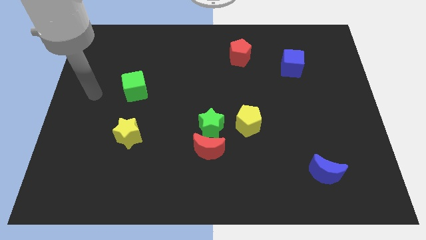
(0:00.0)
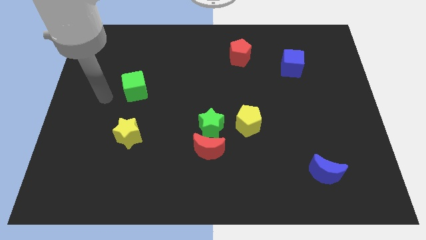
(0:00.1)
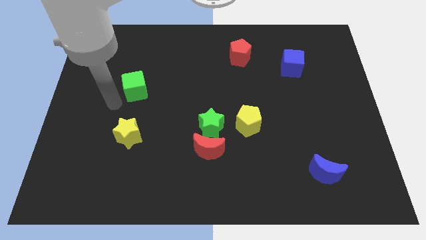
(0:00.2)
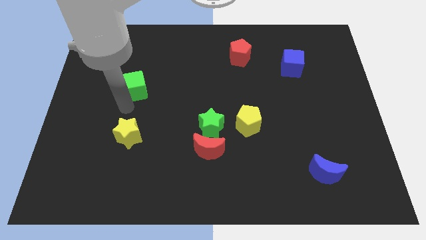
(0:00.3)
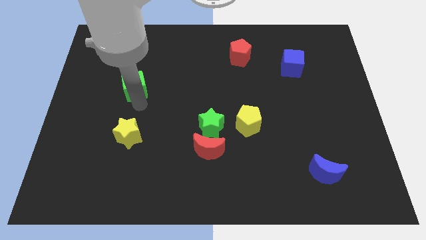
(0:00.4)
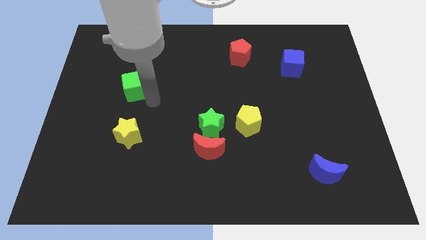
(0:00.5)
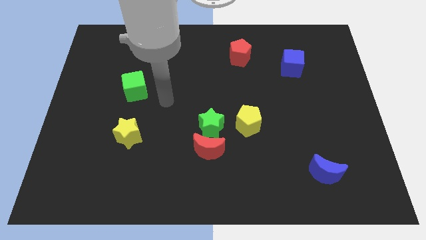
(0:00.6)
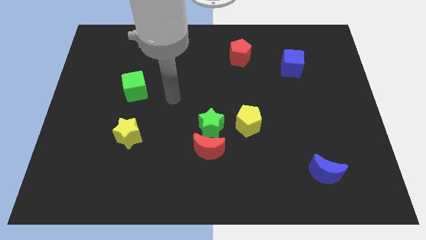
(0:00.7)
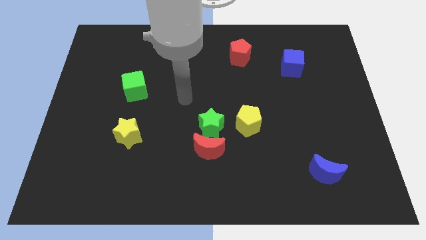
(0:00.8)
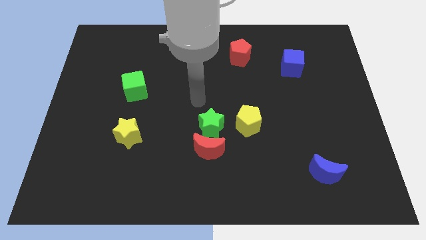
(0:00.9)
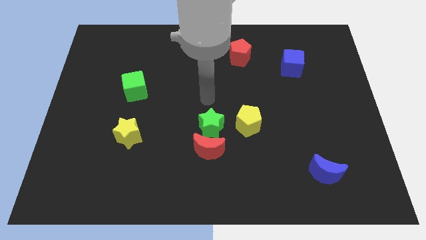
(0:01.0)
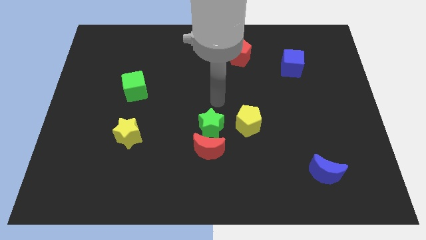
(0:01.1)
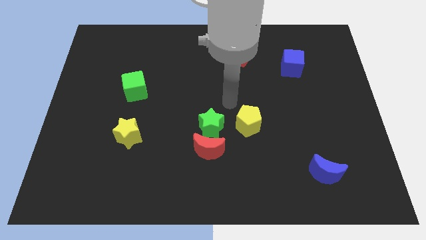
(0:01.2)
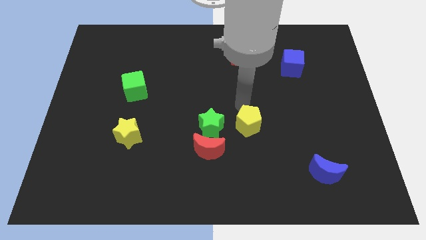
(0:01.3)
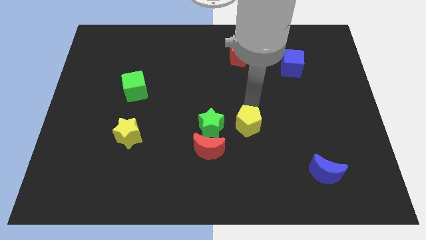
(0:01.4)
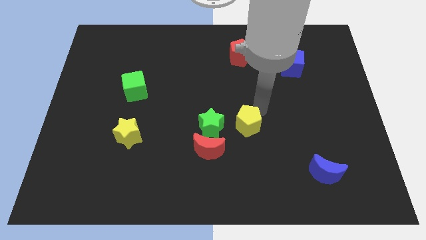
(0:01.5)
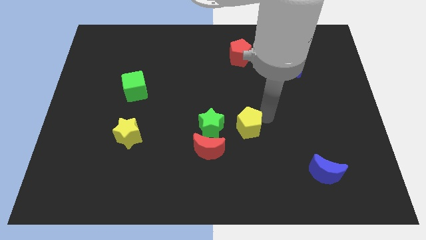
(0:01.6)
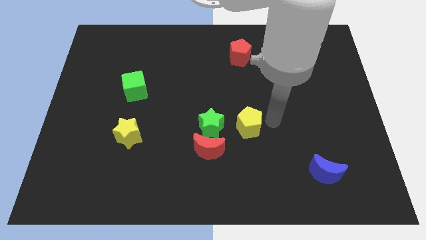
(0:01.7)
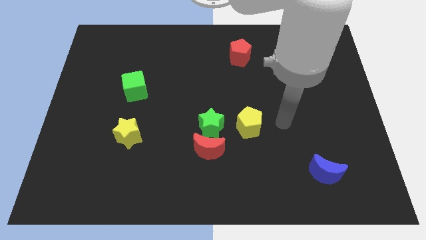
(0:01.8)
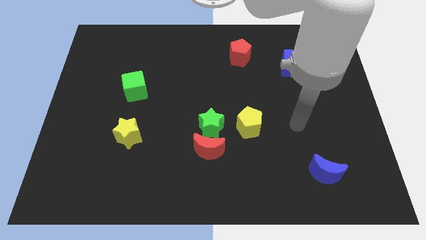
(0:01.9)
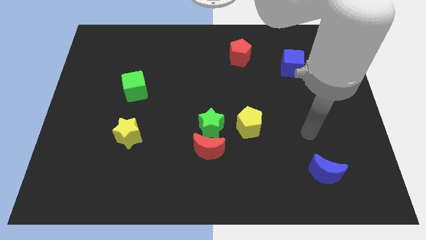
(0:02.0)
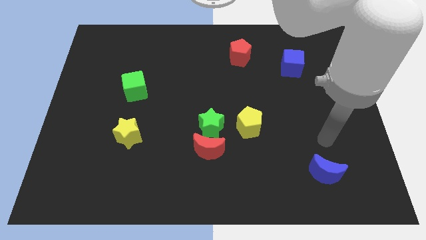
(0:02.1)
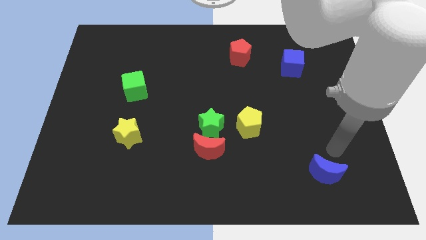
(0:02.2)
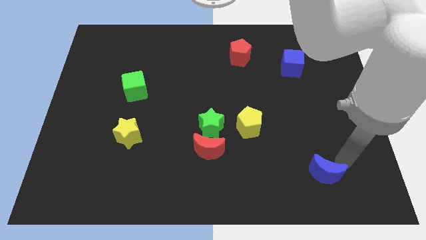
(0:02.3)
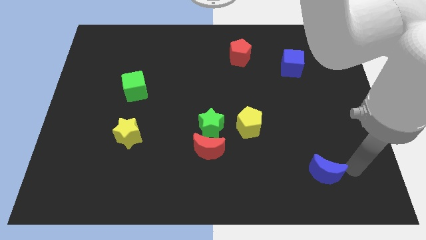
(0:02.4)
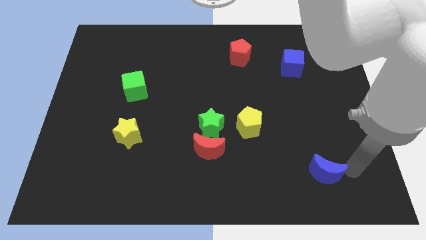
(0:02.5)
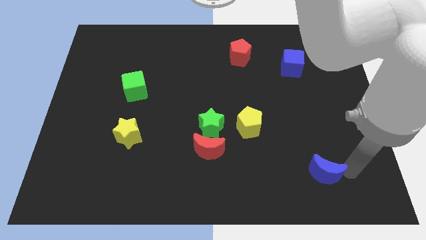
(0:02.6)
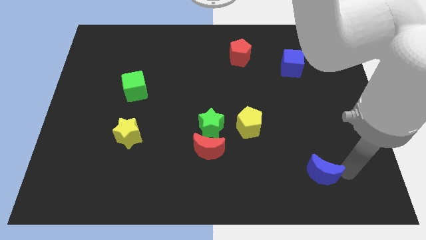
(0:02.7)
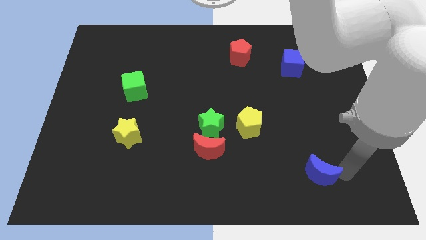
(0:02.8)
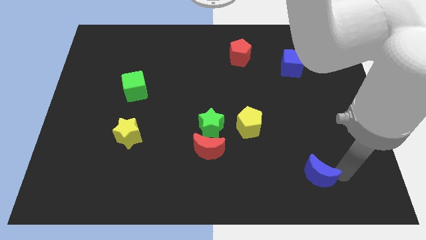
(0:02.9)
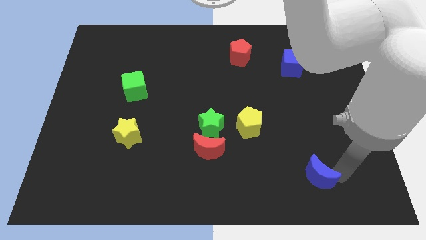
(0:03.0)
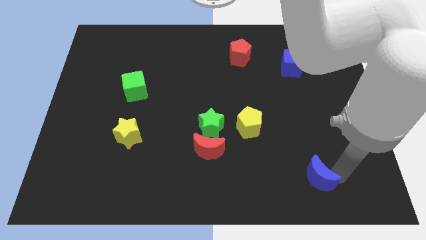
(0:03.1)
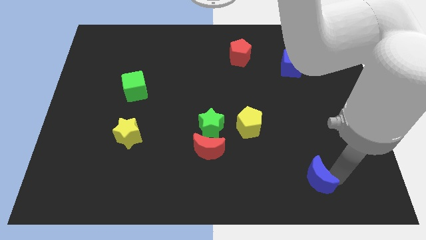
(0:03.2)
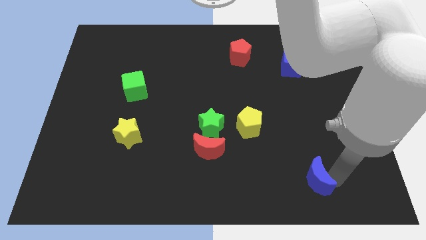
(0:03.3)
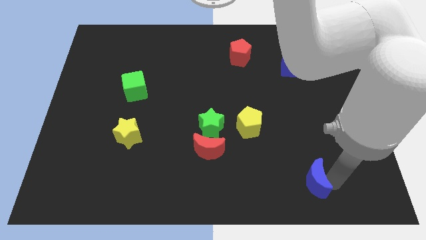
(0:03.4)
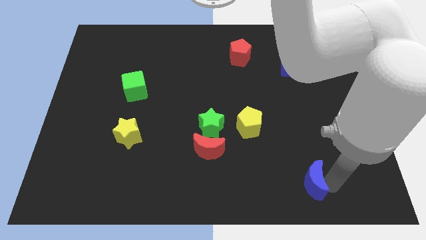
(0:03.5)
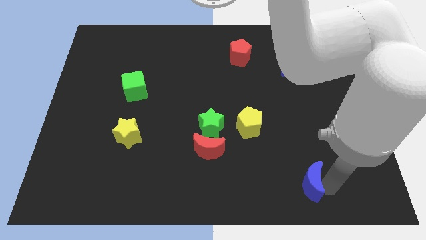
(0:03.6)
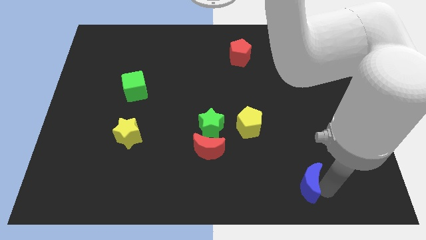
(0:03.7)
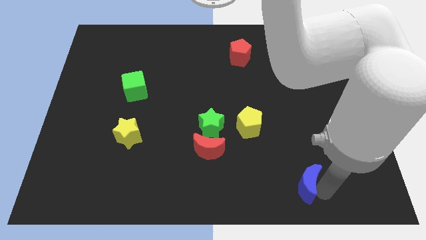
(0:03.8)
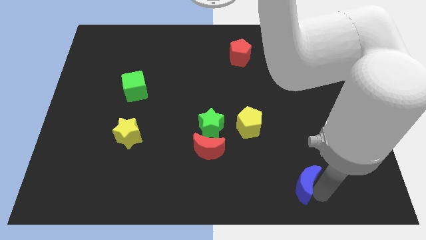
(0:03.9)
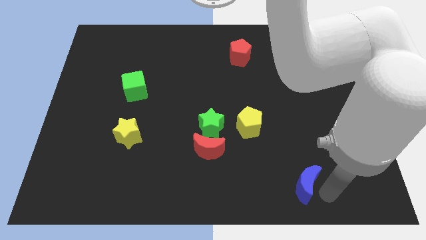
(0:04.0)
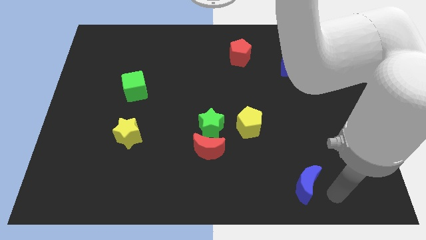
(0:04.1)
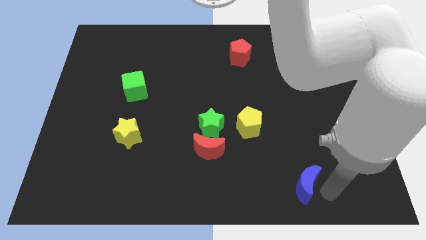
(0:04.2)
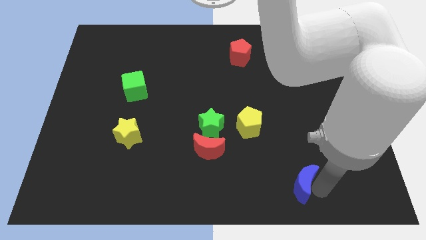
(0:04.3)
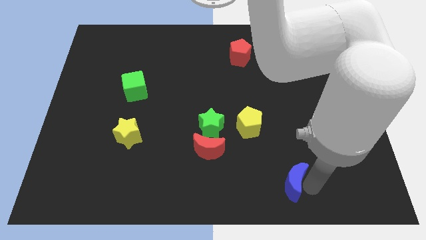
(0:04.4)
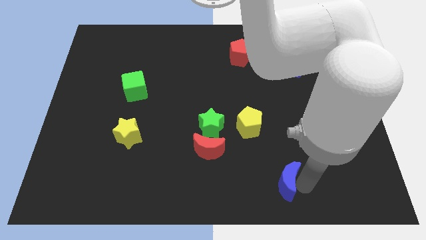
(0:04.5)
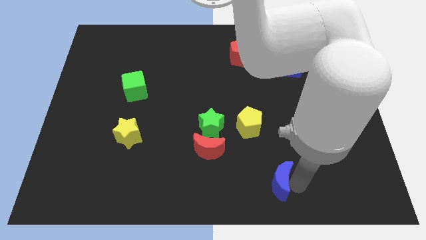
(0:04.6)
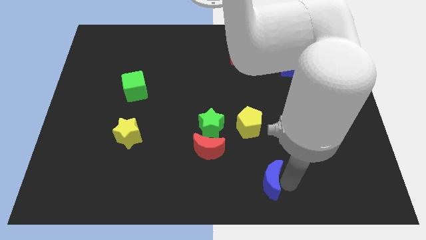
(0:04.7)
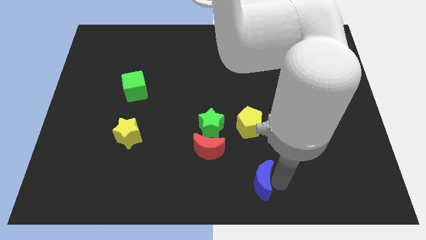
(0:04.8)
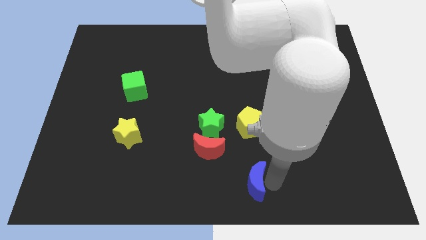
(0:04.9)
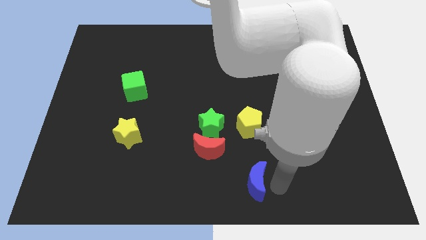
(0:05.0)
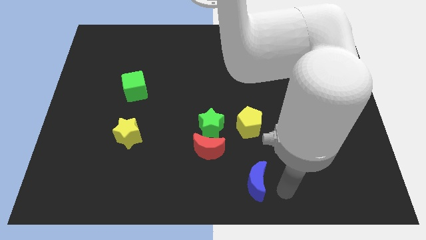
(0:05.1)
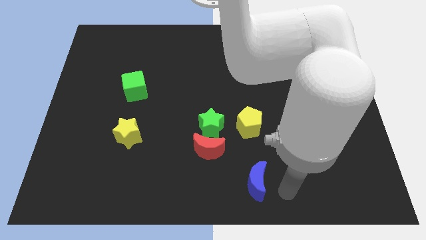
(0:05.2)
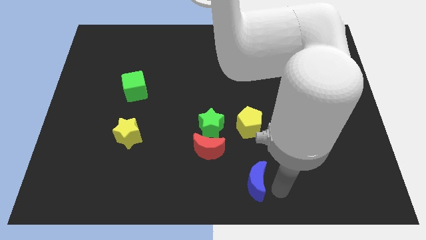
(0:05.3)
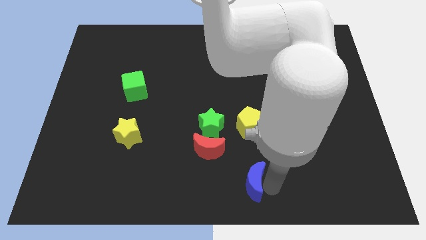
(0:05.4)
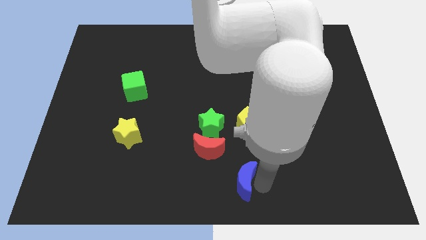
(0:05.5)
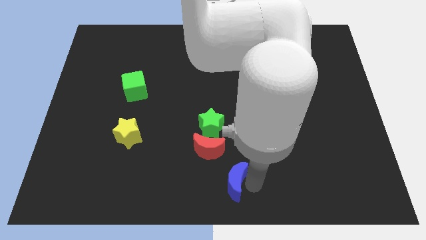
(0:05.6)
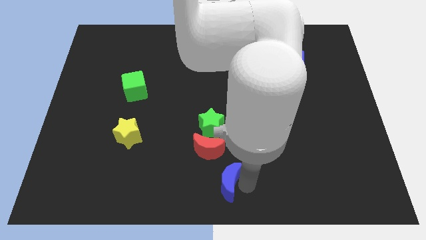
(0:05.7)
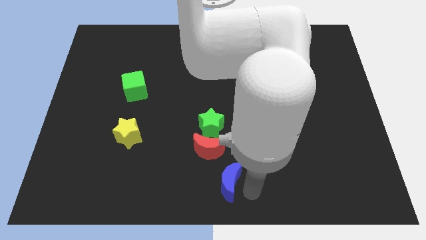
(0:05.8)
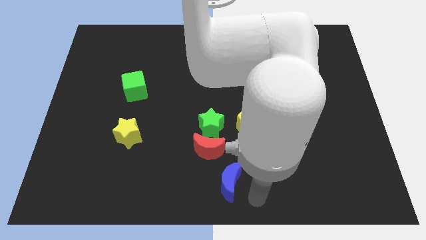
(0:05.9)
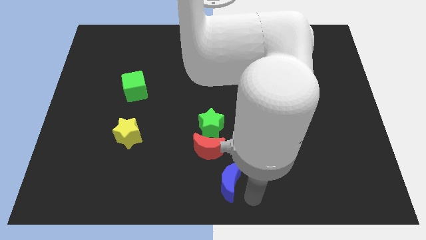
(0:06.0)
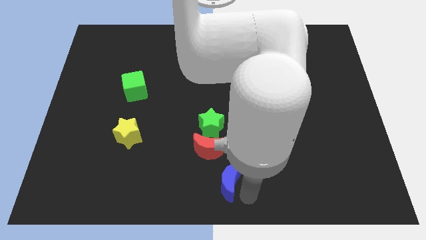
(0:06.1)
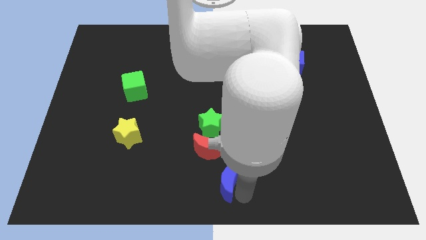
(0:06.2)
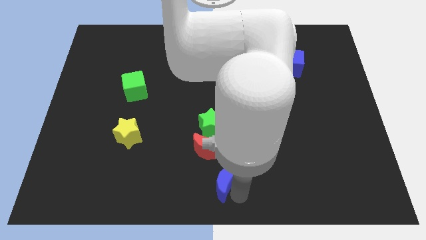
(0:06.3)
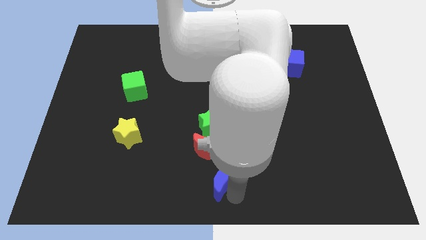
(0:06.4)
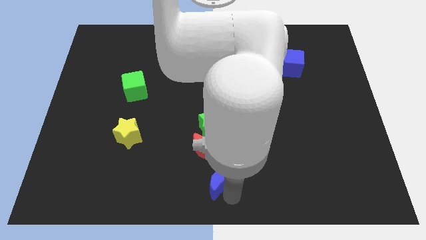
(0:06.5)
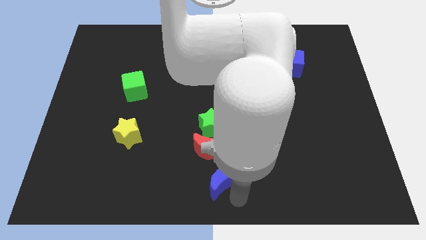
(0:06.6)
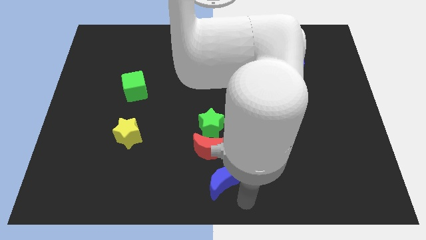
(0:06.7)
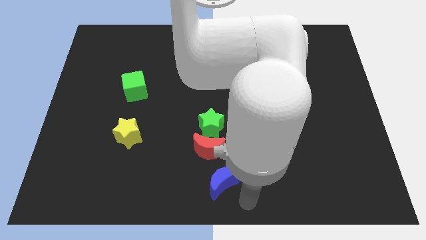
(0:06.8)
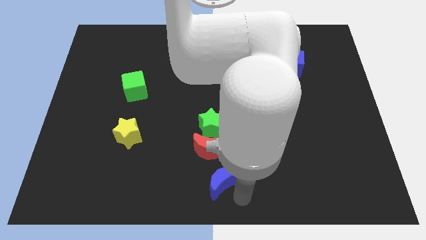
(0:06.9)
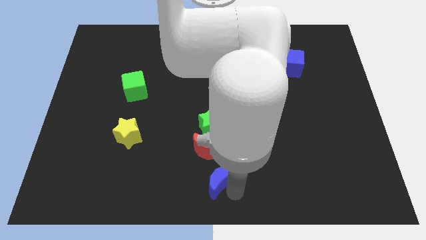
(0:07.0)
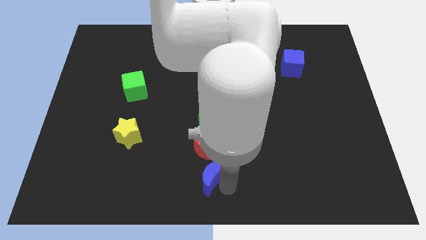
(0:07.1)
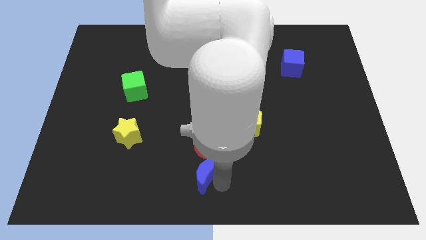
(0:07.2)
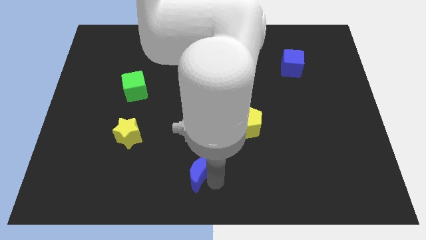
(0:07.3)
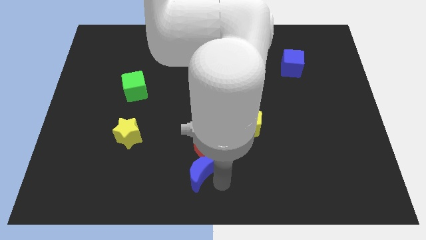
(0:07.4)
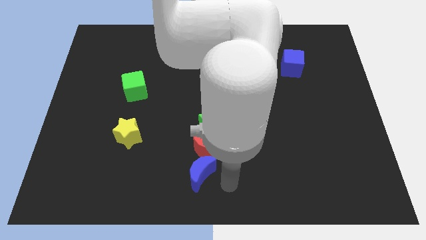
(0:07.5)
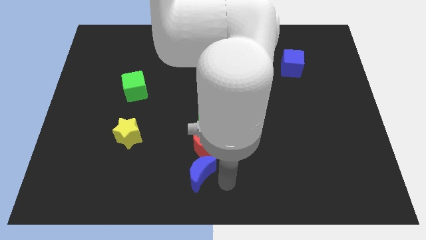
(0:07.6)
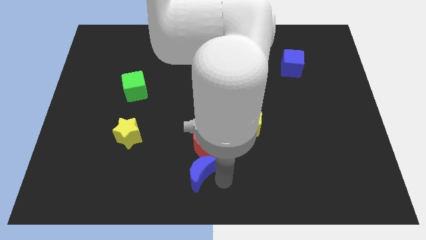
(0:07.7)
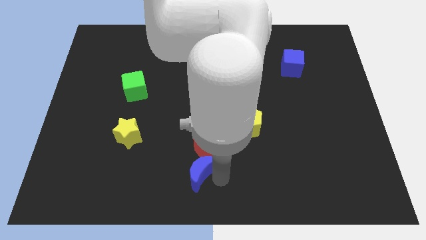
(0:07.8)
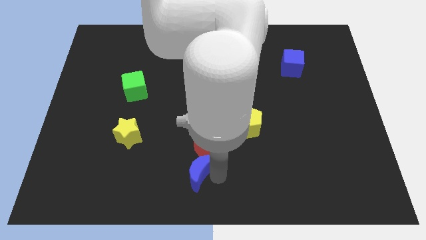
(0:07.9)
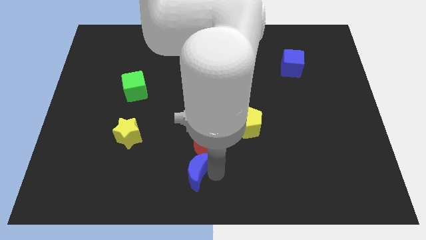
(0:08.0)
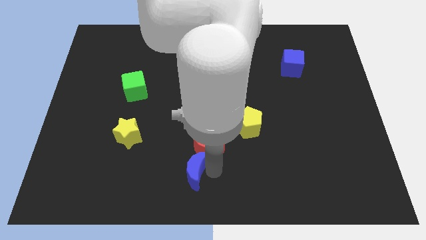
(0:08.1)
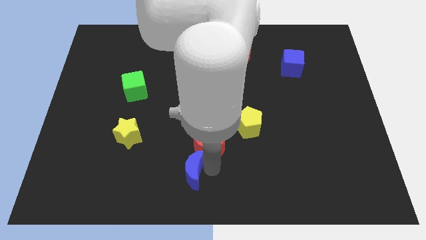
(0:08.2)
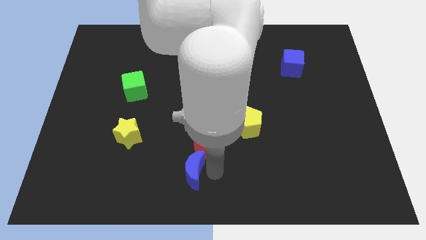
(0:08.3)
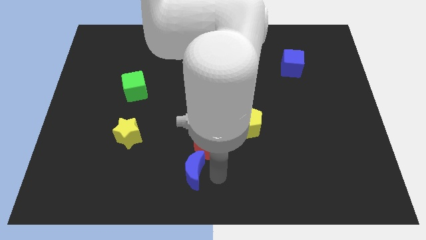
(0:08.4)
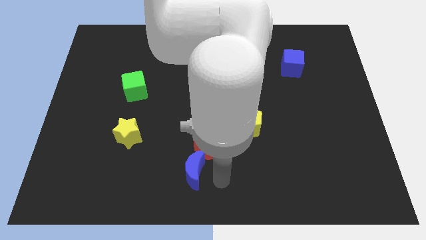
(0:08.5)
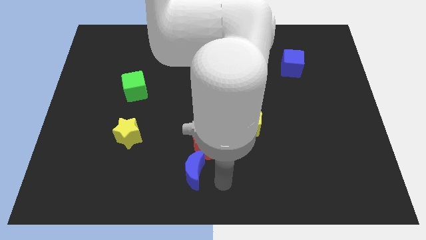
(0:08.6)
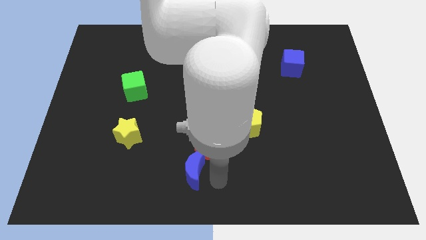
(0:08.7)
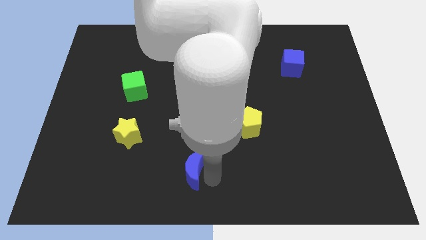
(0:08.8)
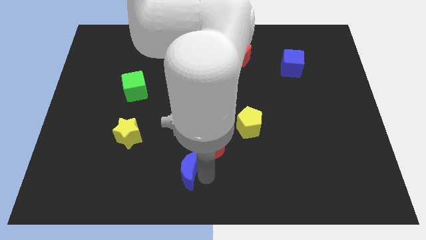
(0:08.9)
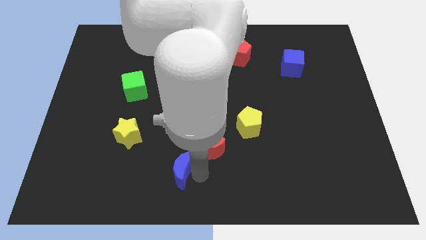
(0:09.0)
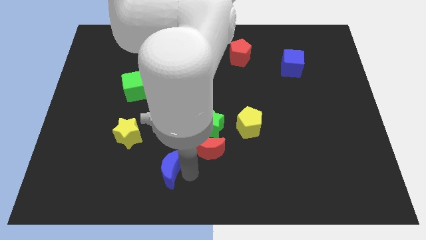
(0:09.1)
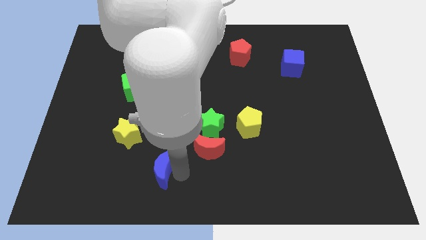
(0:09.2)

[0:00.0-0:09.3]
move the blue moon to the bottom right of the yellow star
